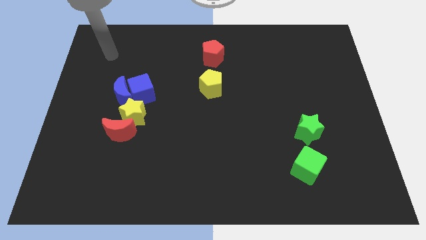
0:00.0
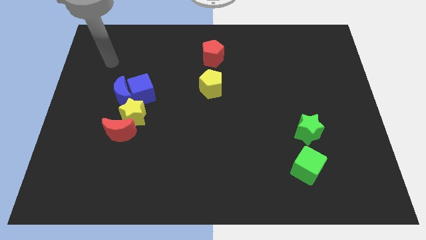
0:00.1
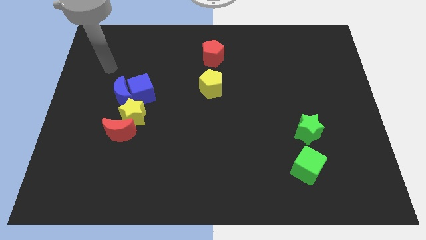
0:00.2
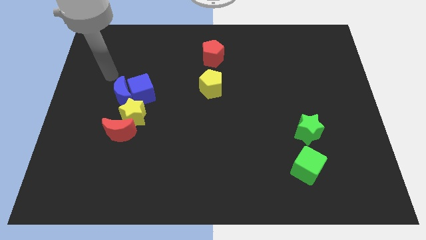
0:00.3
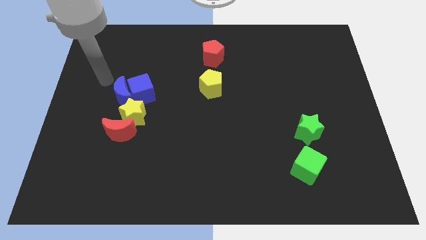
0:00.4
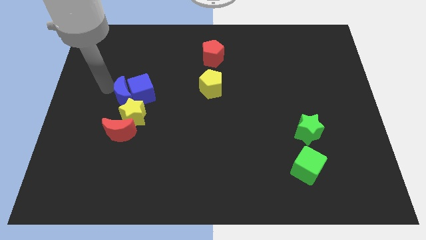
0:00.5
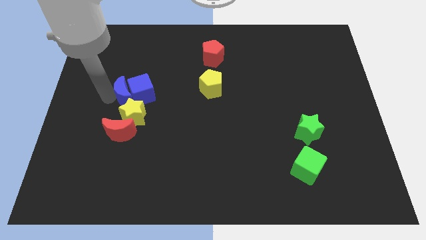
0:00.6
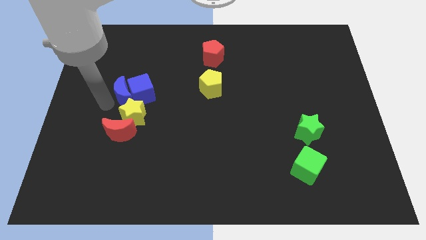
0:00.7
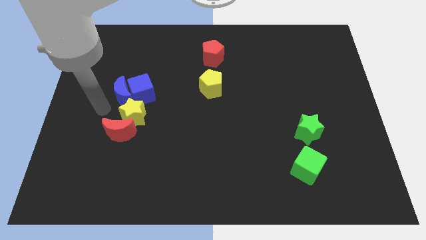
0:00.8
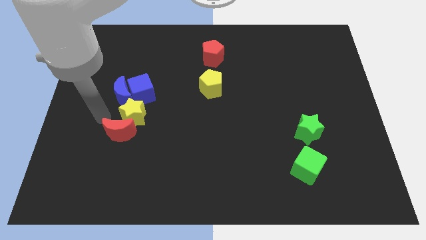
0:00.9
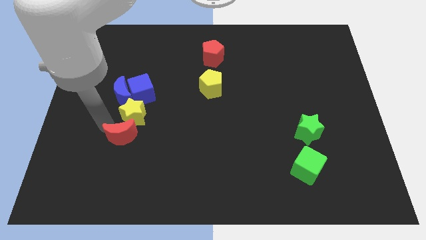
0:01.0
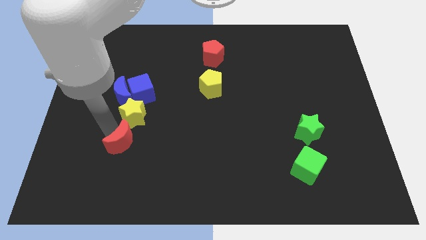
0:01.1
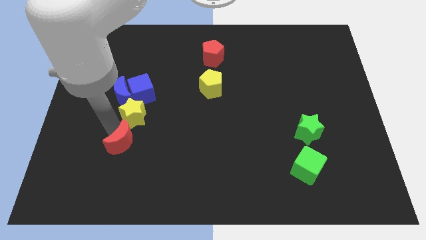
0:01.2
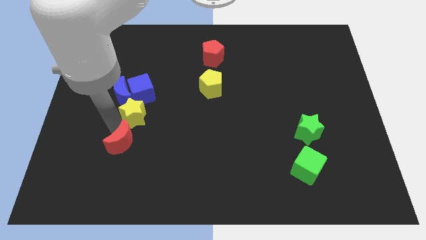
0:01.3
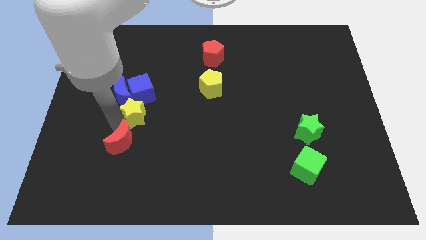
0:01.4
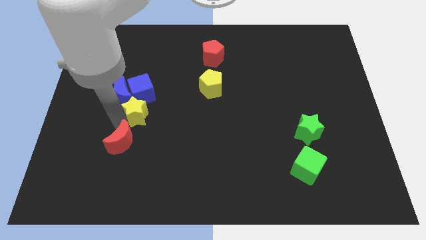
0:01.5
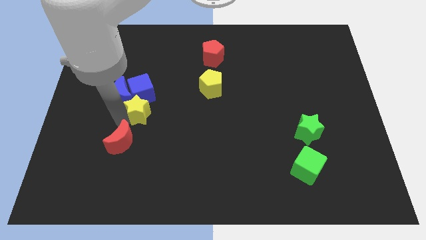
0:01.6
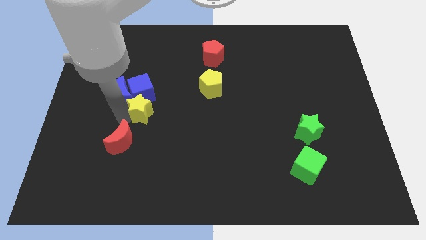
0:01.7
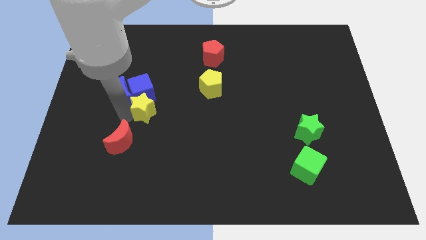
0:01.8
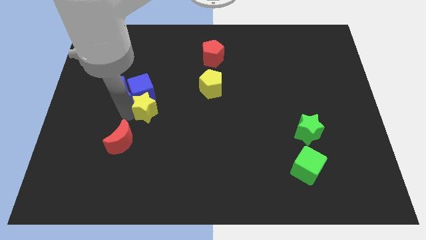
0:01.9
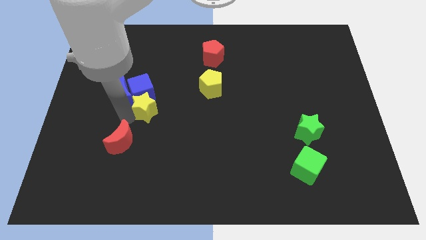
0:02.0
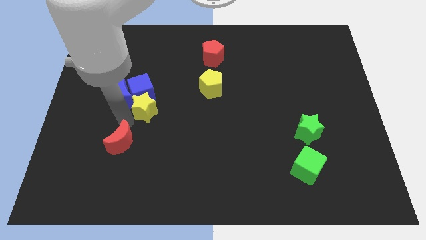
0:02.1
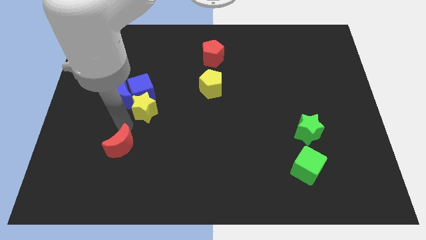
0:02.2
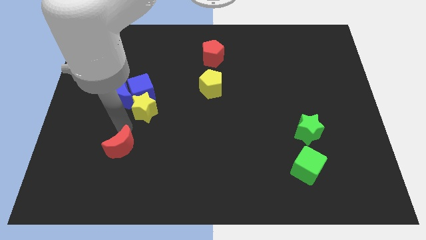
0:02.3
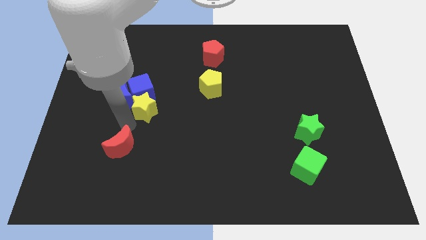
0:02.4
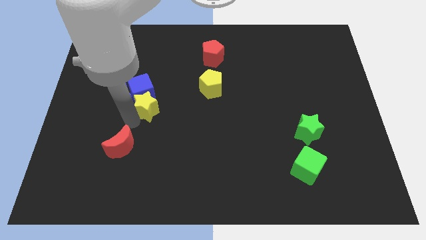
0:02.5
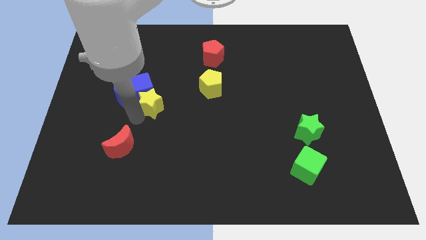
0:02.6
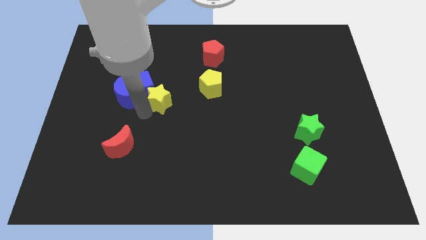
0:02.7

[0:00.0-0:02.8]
move the yellow star a little bit up and right

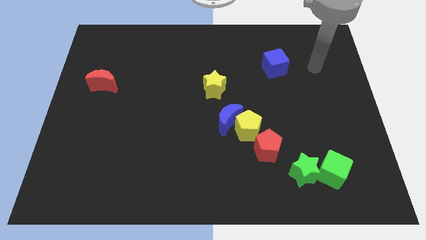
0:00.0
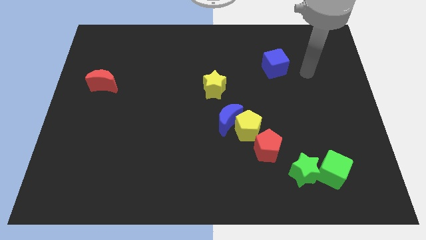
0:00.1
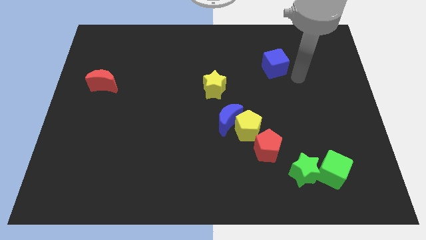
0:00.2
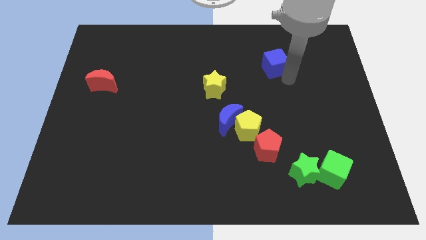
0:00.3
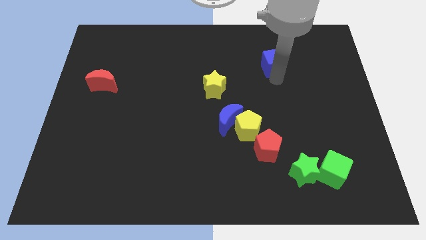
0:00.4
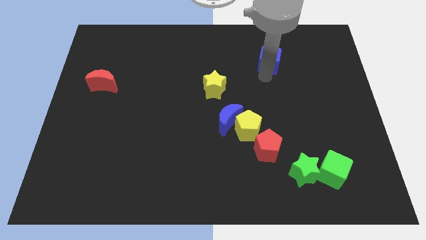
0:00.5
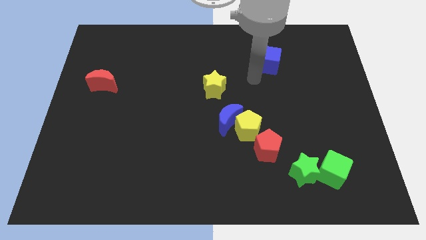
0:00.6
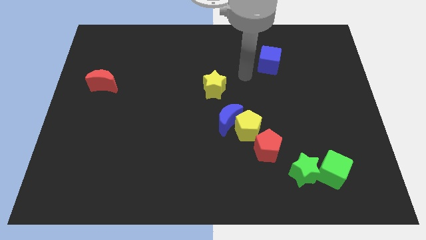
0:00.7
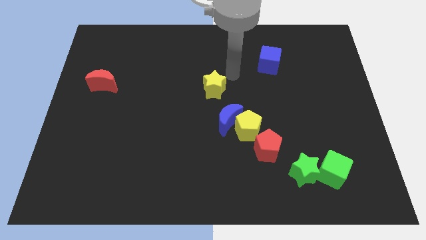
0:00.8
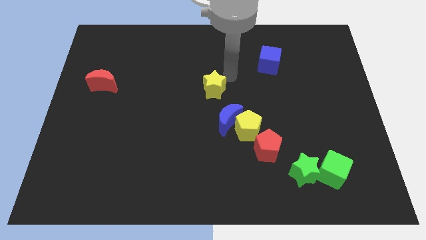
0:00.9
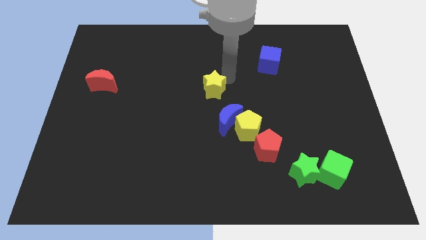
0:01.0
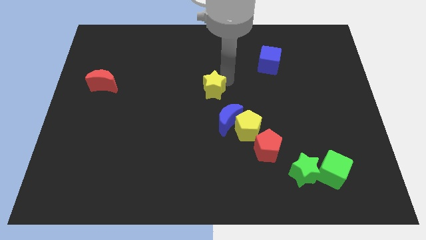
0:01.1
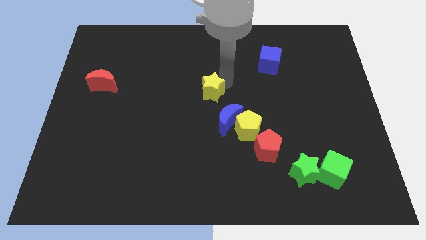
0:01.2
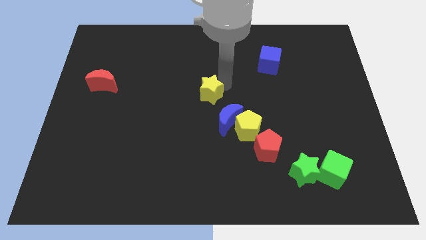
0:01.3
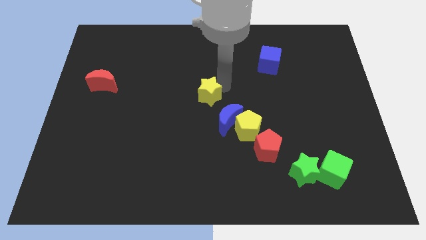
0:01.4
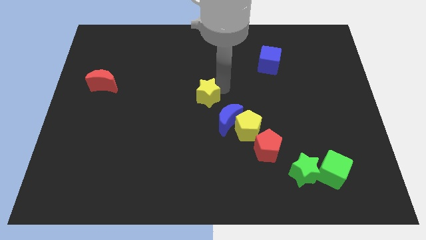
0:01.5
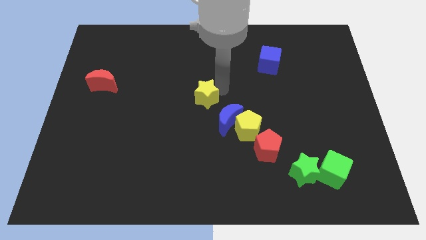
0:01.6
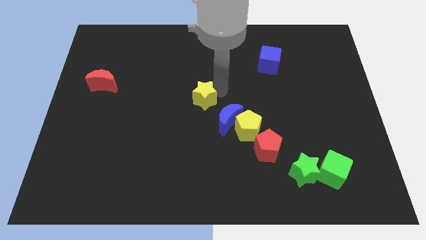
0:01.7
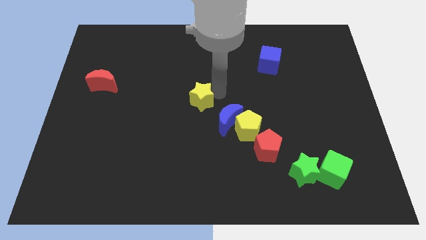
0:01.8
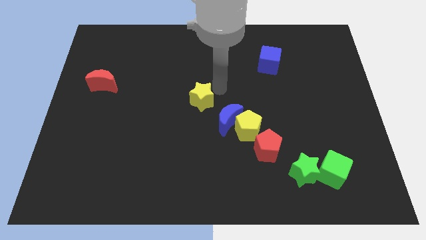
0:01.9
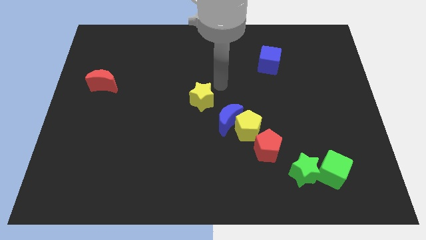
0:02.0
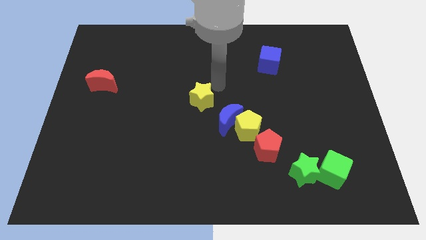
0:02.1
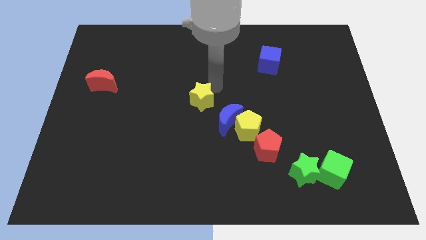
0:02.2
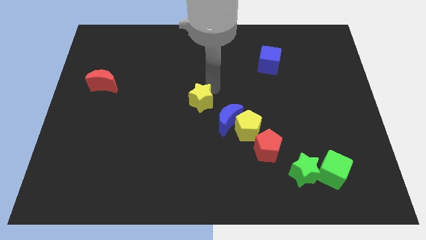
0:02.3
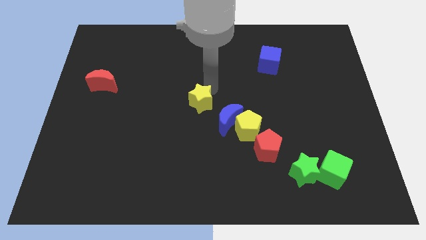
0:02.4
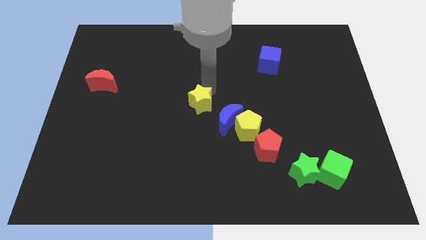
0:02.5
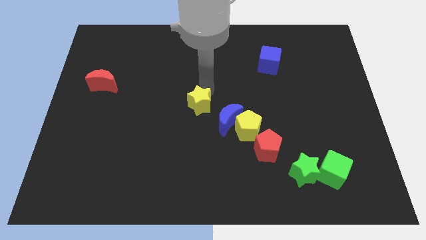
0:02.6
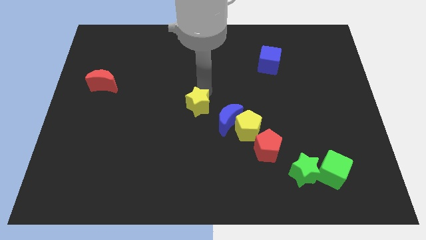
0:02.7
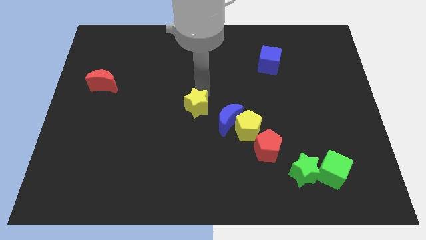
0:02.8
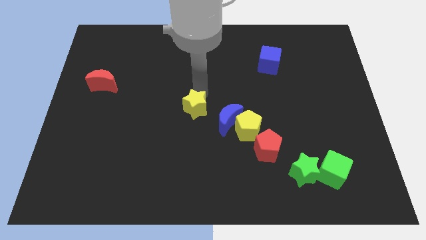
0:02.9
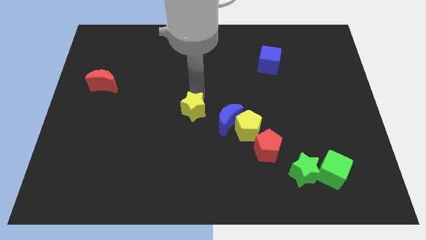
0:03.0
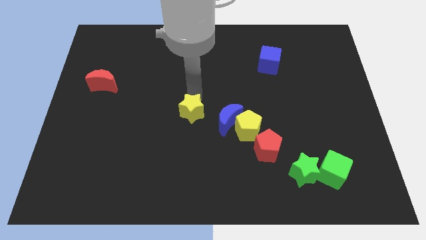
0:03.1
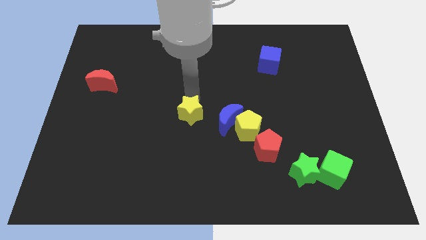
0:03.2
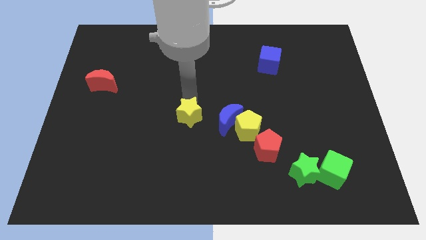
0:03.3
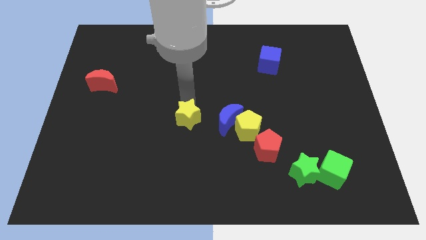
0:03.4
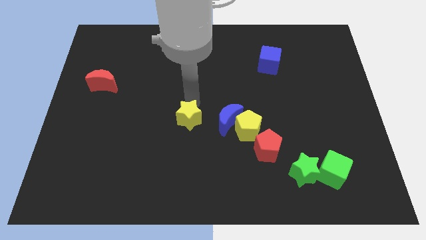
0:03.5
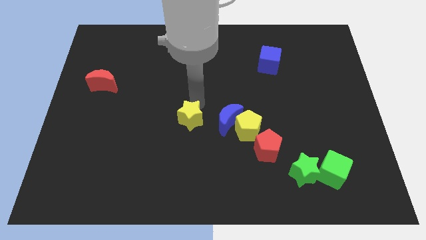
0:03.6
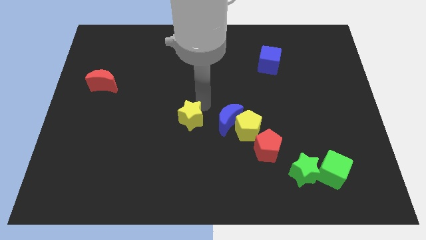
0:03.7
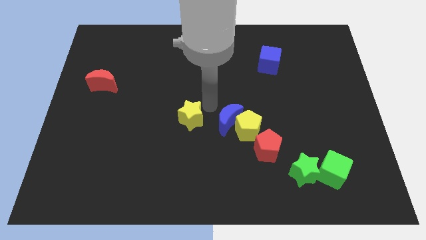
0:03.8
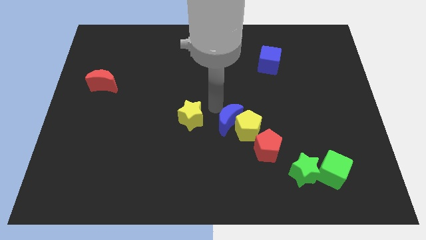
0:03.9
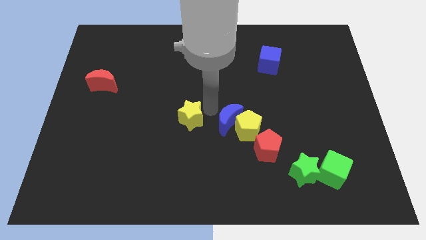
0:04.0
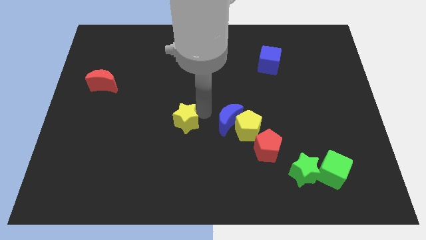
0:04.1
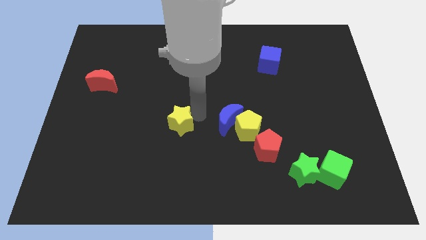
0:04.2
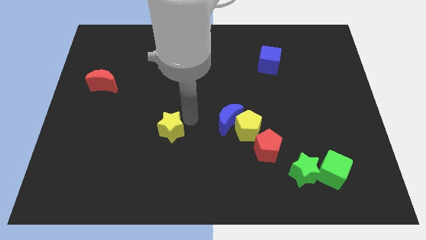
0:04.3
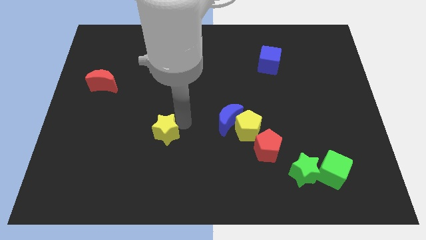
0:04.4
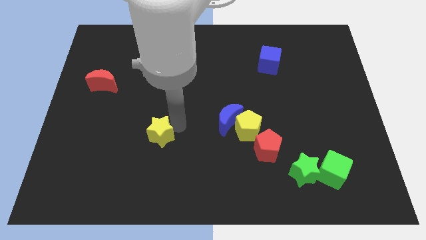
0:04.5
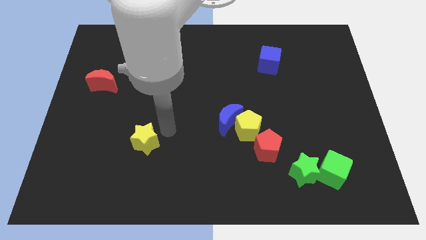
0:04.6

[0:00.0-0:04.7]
move the yellow star diagonally downwards and left

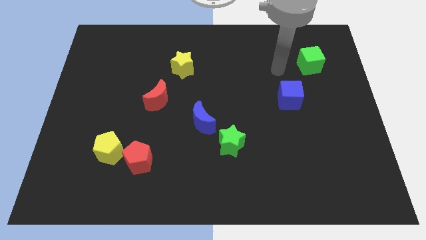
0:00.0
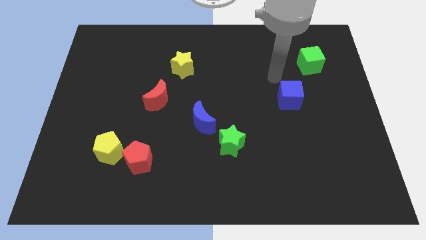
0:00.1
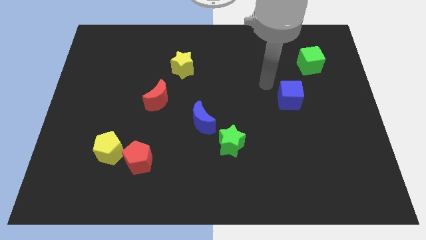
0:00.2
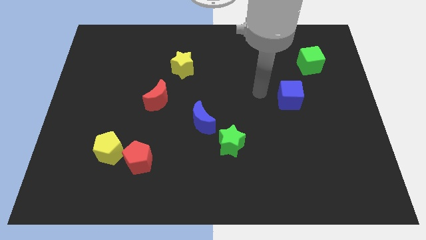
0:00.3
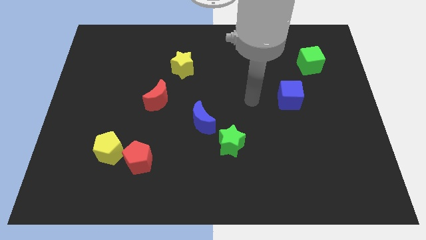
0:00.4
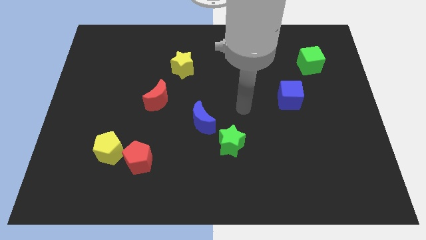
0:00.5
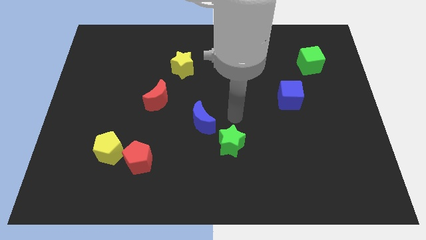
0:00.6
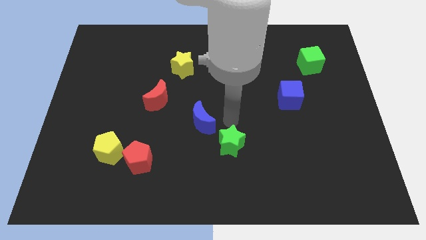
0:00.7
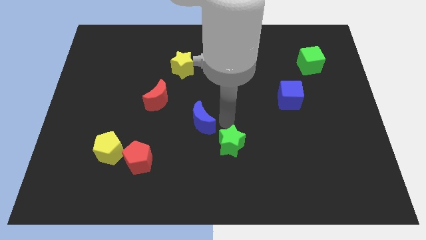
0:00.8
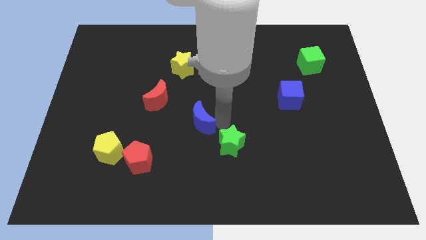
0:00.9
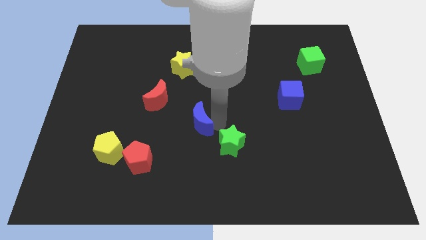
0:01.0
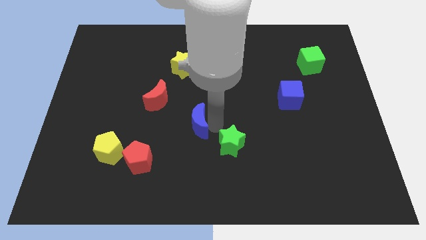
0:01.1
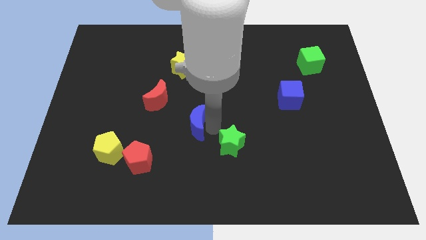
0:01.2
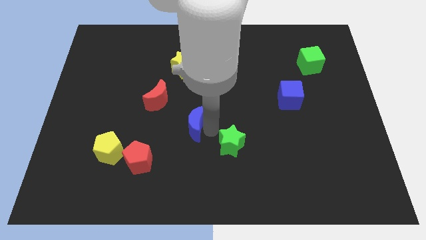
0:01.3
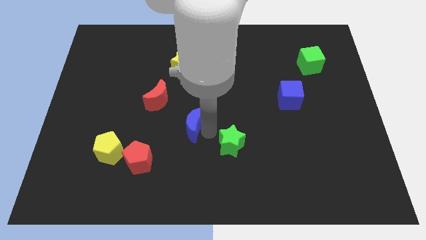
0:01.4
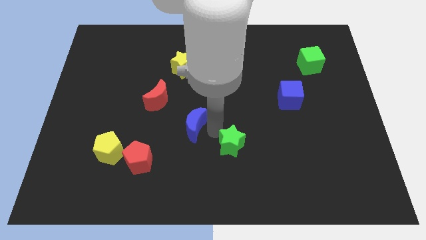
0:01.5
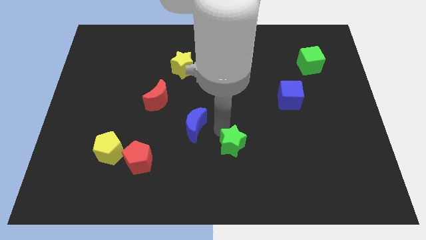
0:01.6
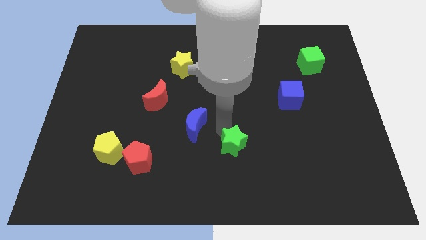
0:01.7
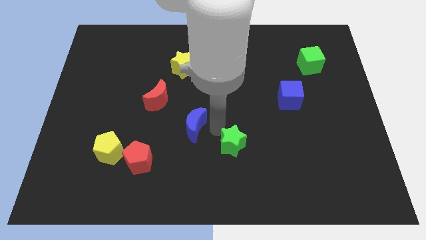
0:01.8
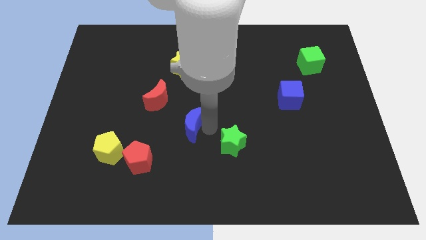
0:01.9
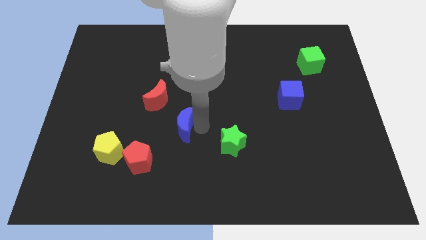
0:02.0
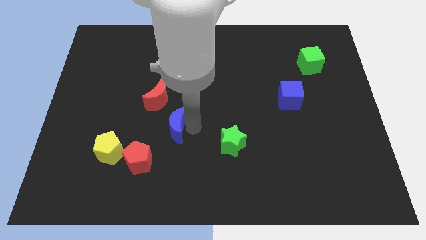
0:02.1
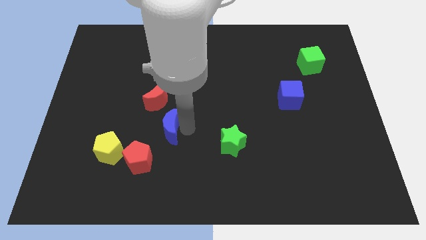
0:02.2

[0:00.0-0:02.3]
push the blue moon a little bit to the left
